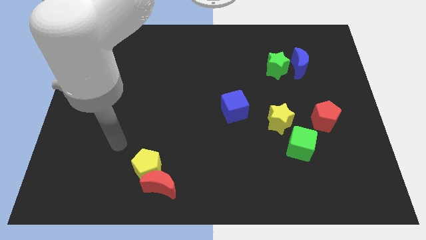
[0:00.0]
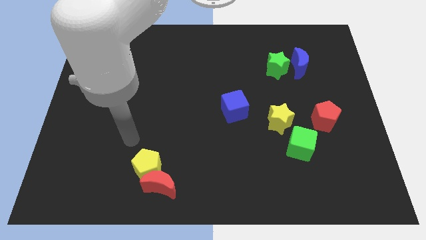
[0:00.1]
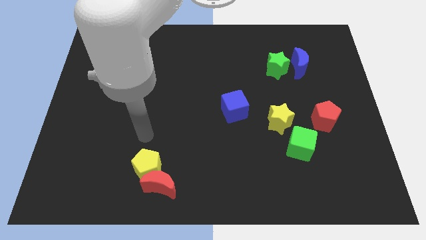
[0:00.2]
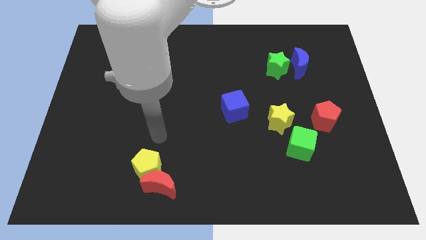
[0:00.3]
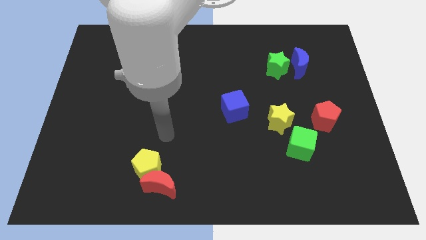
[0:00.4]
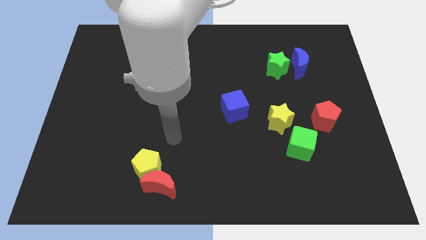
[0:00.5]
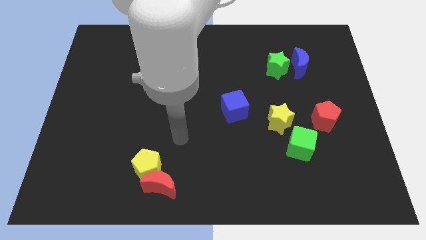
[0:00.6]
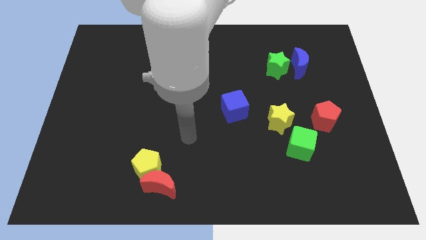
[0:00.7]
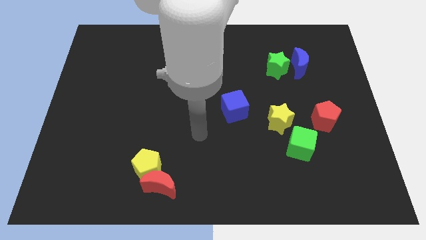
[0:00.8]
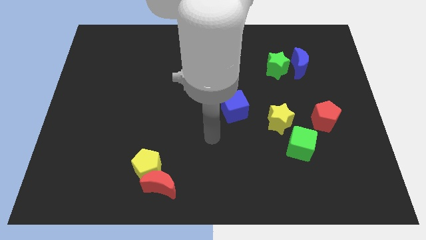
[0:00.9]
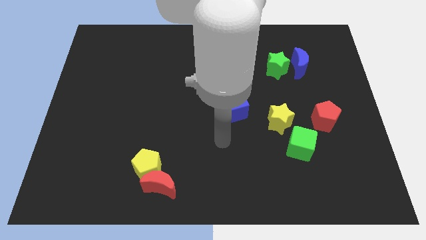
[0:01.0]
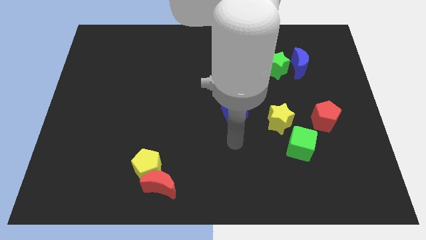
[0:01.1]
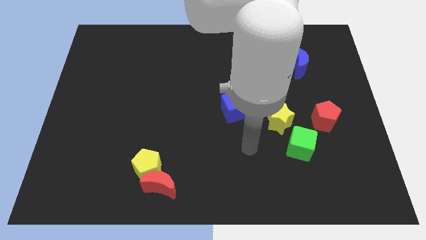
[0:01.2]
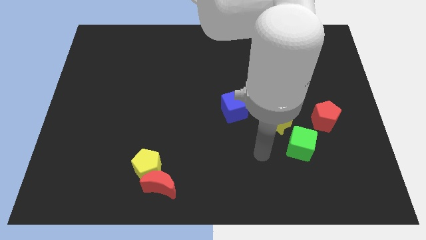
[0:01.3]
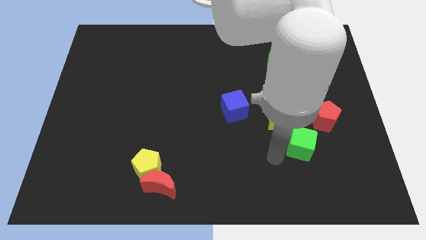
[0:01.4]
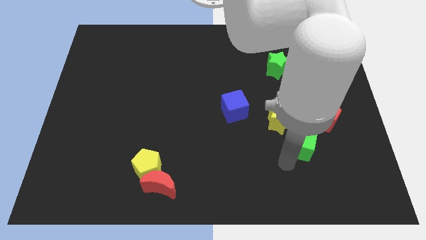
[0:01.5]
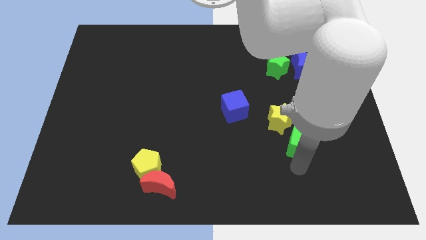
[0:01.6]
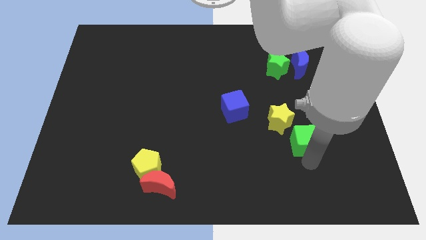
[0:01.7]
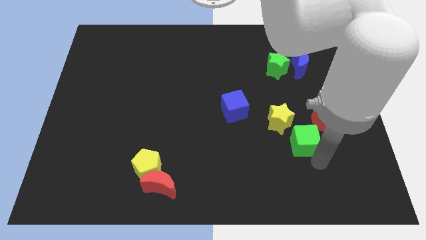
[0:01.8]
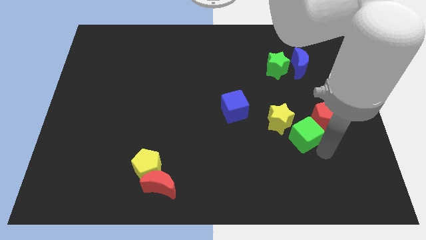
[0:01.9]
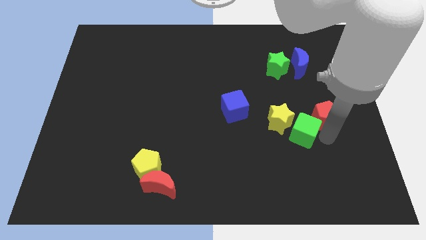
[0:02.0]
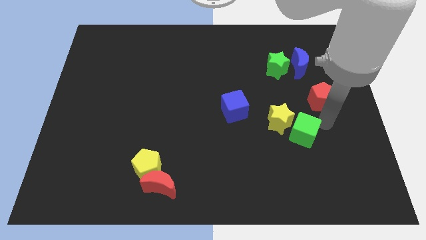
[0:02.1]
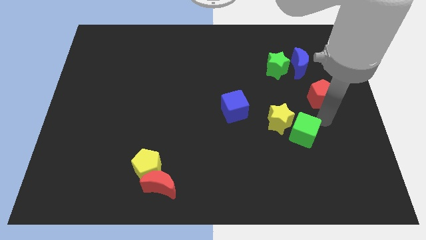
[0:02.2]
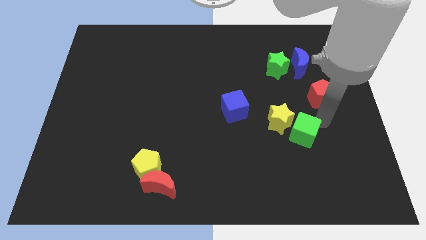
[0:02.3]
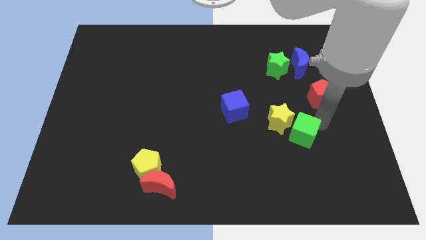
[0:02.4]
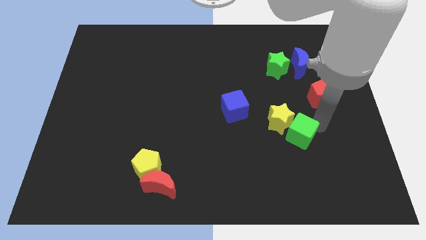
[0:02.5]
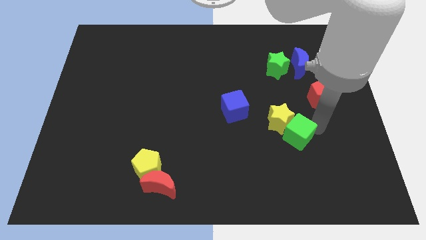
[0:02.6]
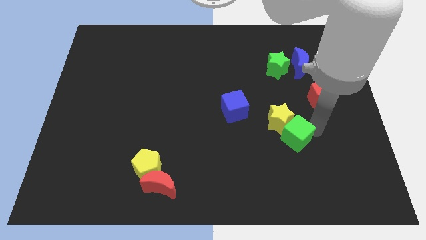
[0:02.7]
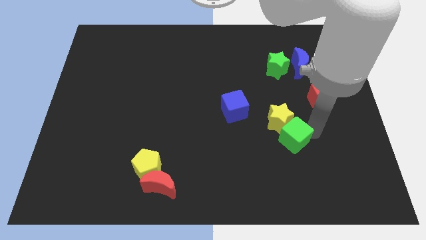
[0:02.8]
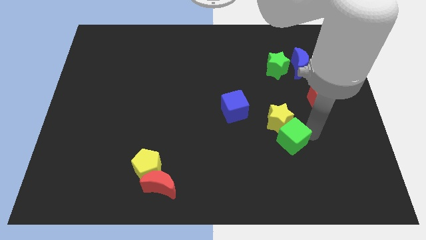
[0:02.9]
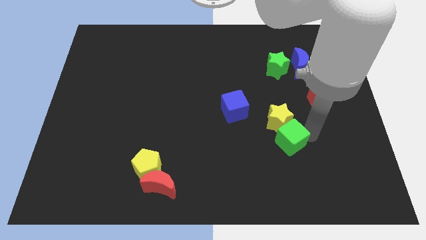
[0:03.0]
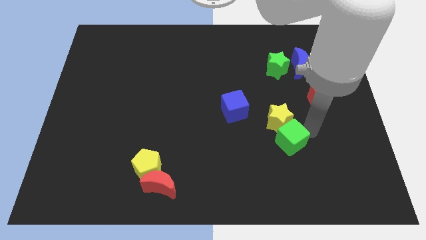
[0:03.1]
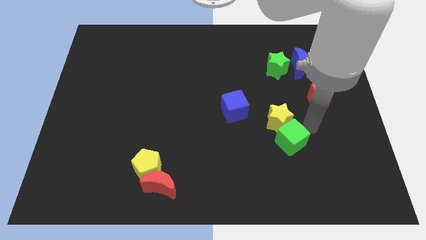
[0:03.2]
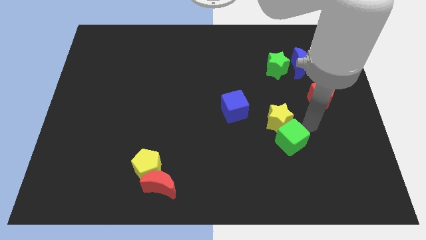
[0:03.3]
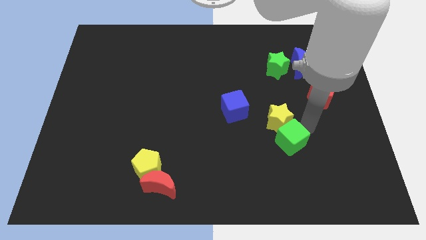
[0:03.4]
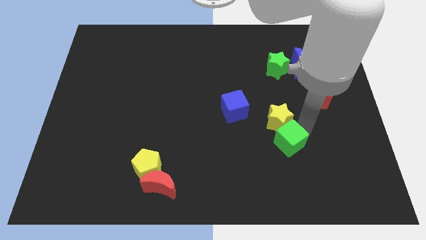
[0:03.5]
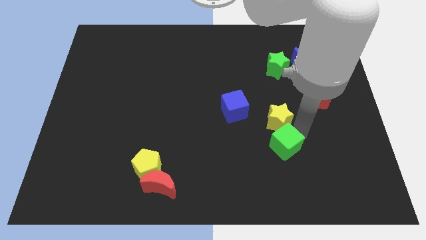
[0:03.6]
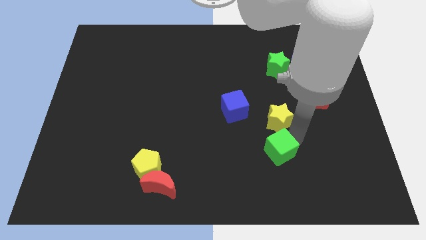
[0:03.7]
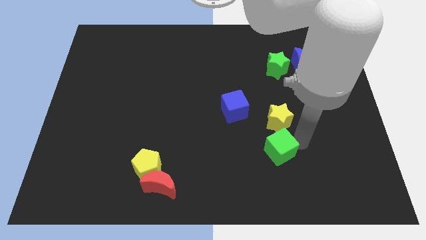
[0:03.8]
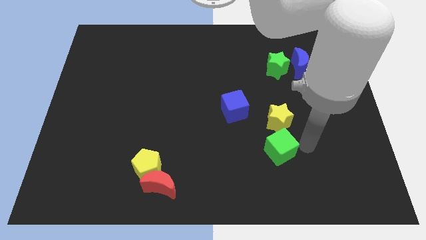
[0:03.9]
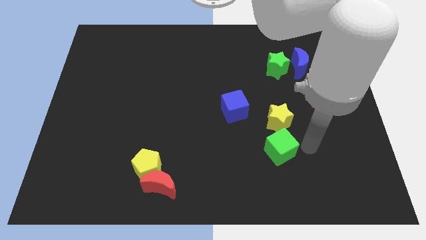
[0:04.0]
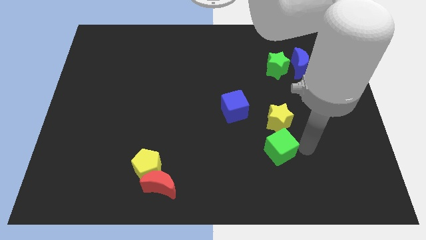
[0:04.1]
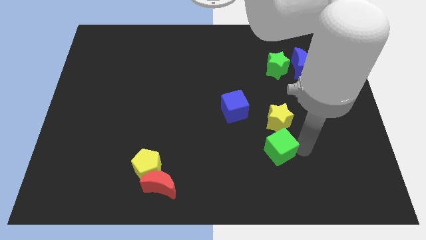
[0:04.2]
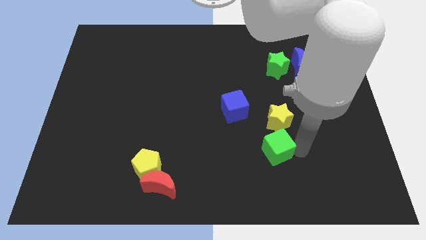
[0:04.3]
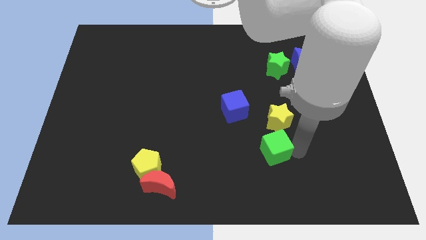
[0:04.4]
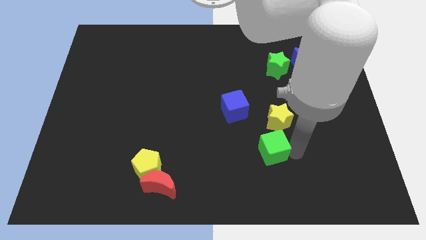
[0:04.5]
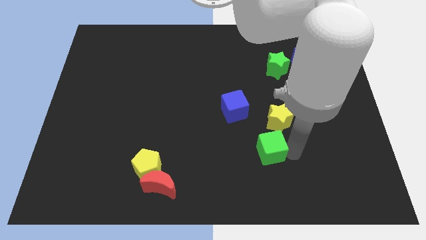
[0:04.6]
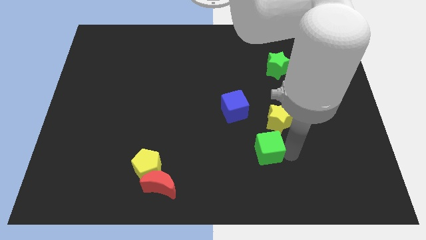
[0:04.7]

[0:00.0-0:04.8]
slightly slide the green cube to the left

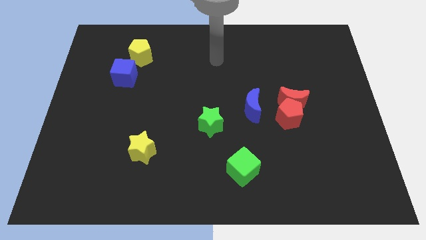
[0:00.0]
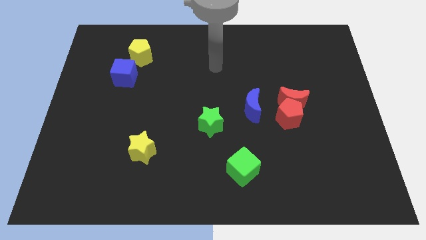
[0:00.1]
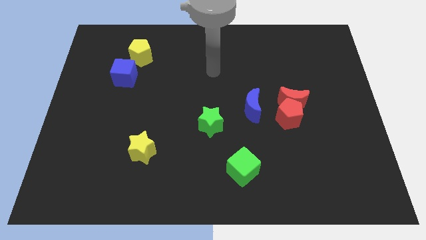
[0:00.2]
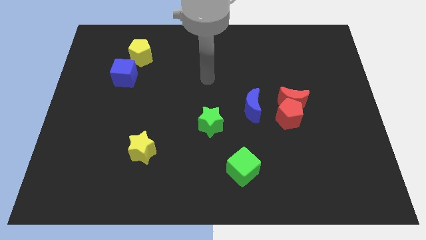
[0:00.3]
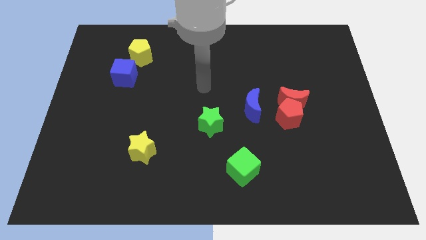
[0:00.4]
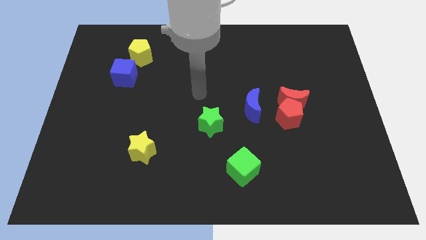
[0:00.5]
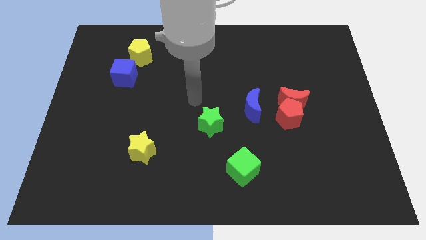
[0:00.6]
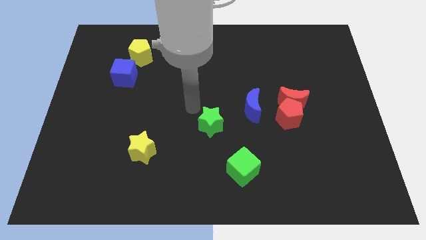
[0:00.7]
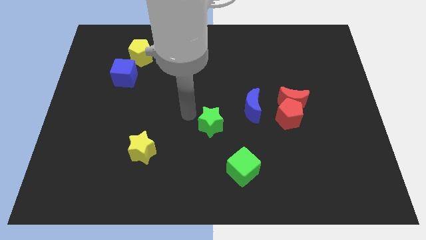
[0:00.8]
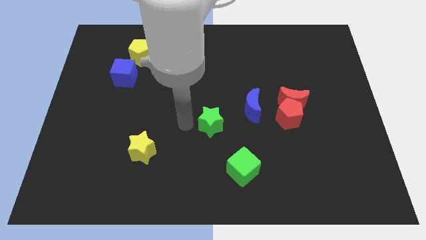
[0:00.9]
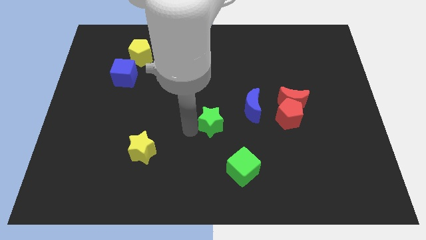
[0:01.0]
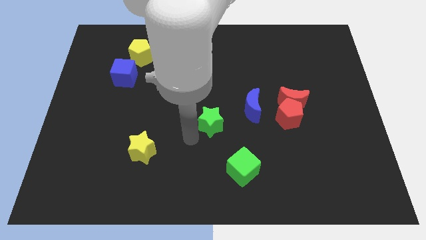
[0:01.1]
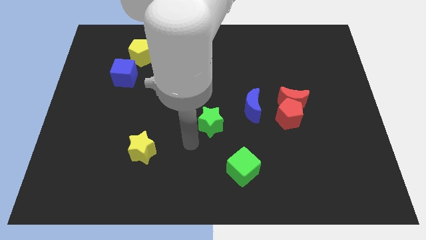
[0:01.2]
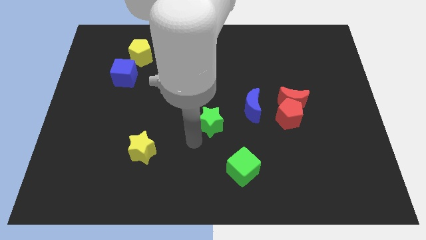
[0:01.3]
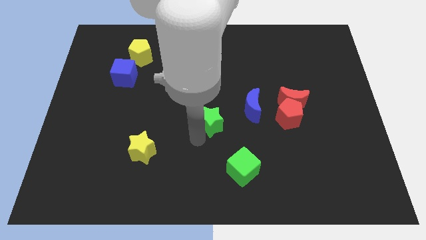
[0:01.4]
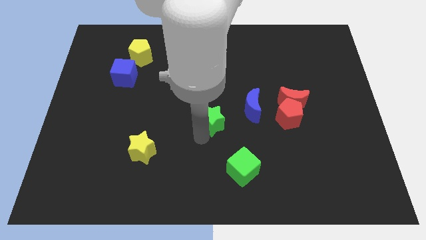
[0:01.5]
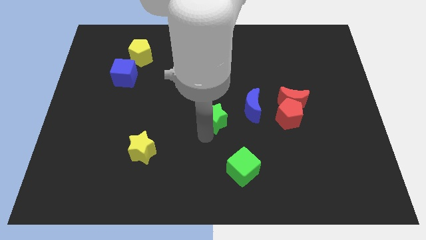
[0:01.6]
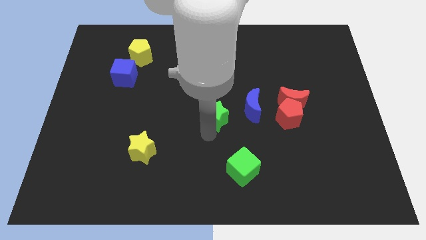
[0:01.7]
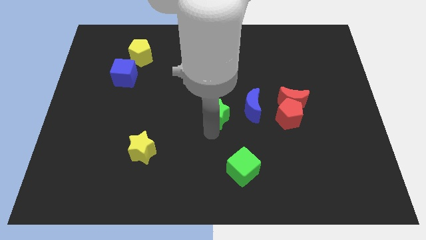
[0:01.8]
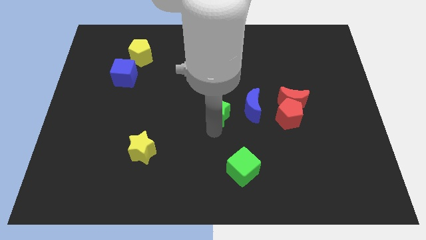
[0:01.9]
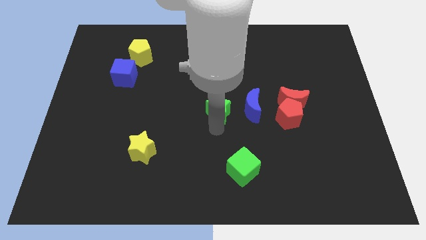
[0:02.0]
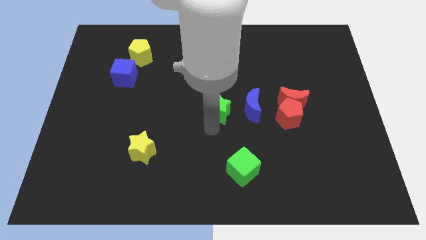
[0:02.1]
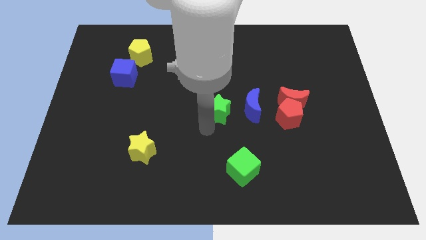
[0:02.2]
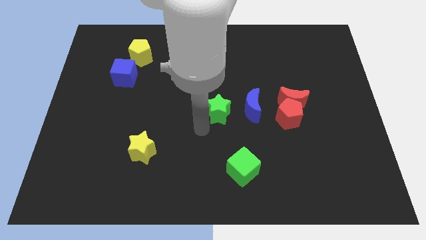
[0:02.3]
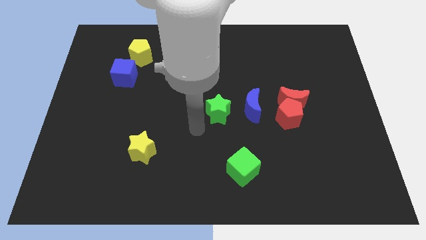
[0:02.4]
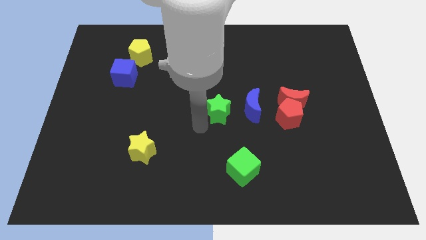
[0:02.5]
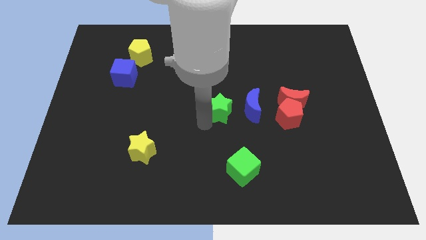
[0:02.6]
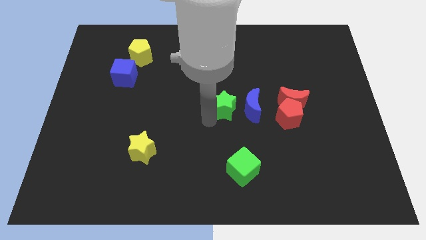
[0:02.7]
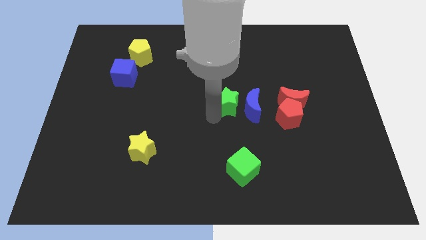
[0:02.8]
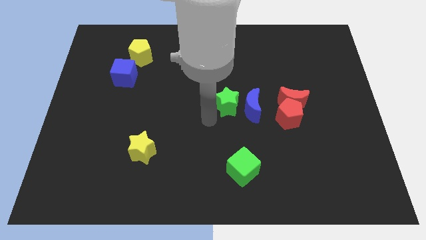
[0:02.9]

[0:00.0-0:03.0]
move the green star a bit diagonally upwards and to the right

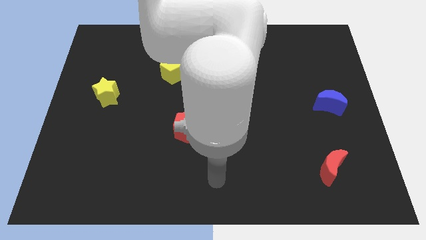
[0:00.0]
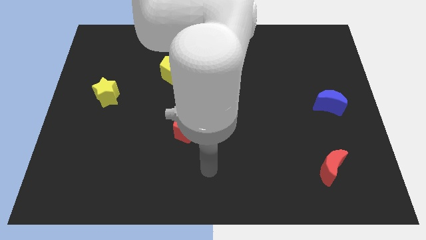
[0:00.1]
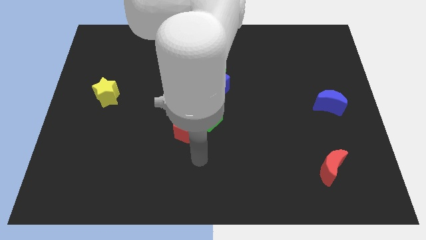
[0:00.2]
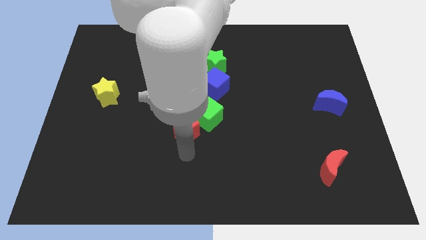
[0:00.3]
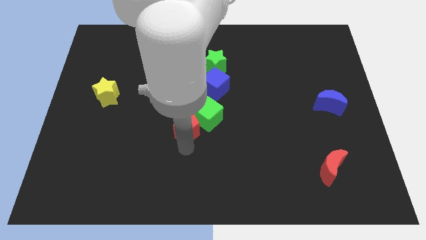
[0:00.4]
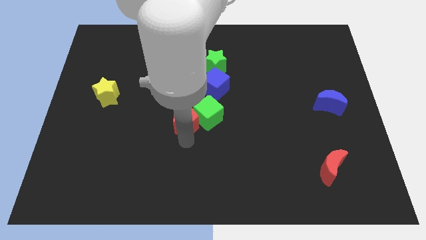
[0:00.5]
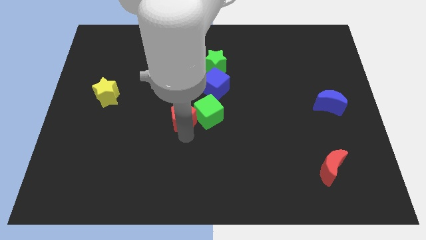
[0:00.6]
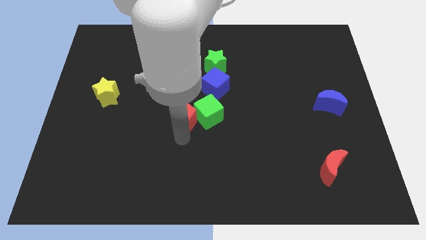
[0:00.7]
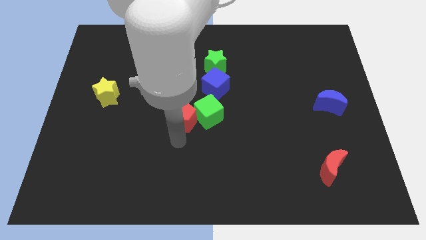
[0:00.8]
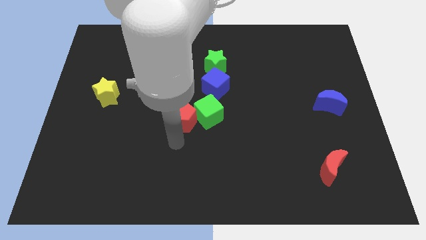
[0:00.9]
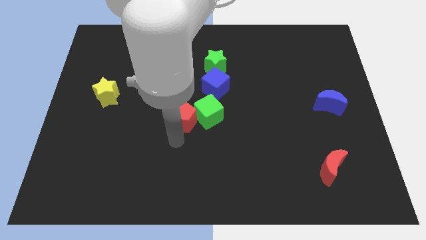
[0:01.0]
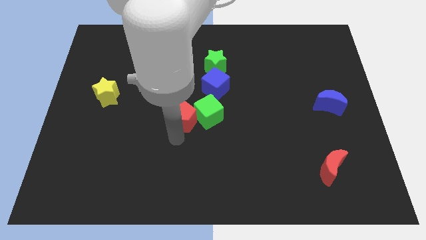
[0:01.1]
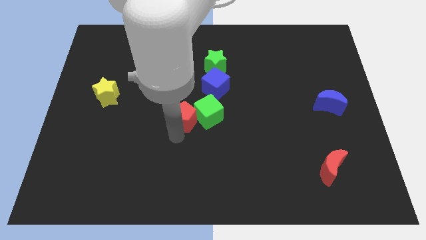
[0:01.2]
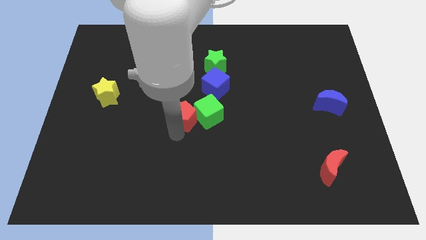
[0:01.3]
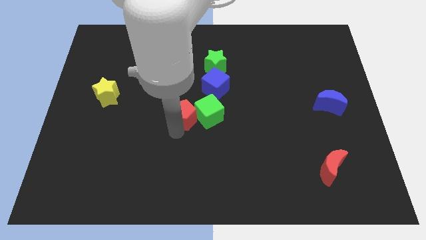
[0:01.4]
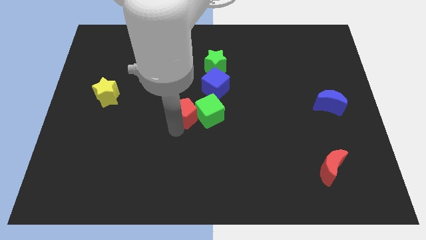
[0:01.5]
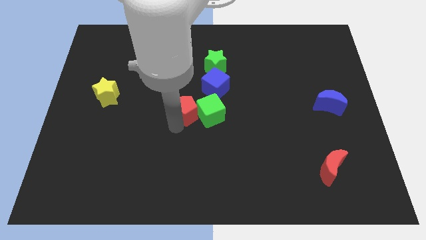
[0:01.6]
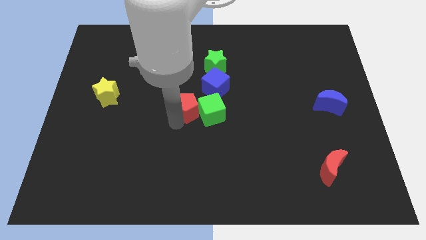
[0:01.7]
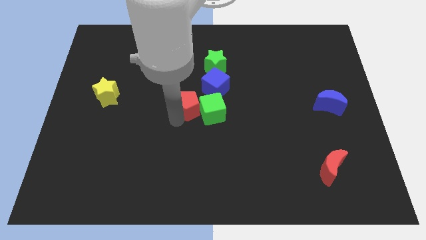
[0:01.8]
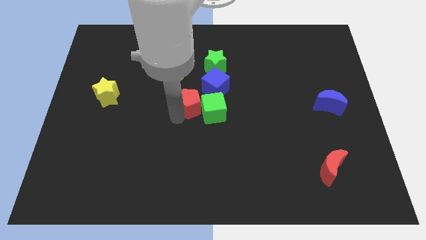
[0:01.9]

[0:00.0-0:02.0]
slightly push the red pentagon up
